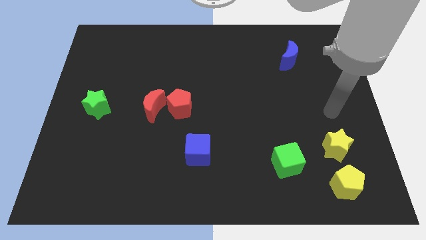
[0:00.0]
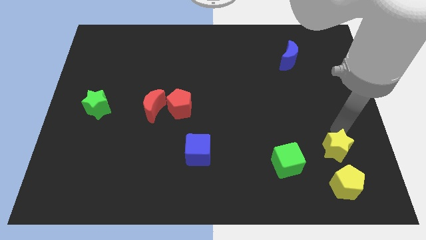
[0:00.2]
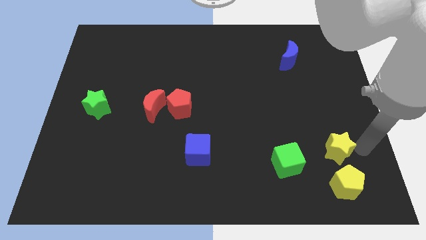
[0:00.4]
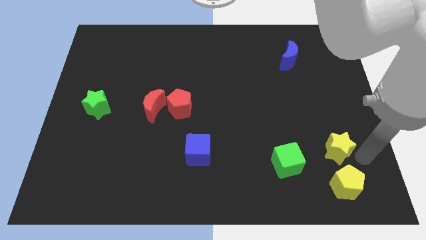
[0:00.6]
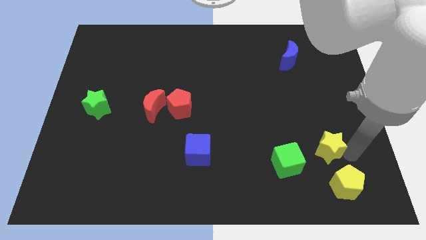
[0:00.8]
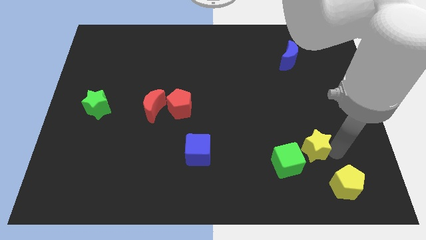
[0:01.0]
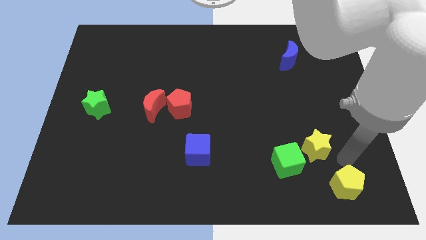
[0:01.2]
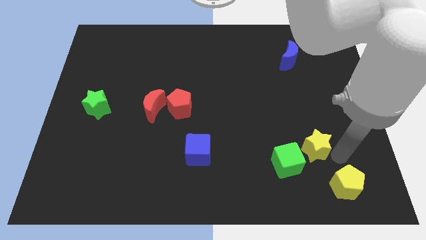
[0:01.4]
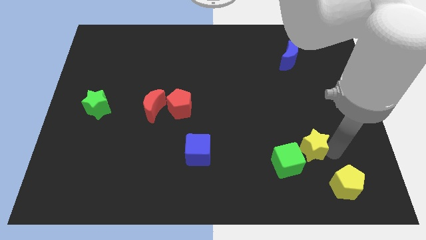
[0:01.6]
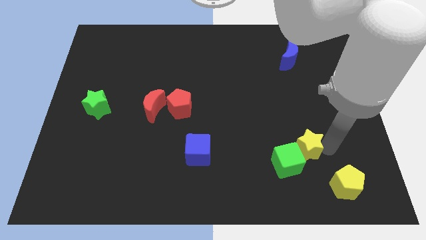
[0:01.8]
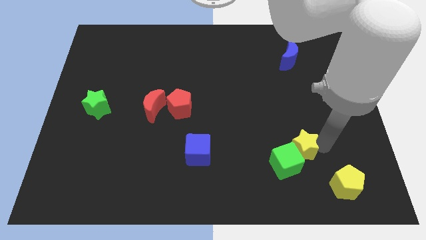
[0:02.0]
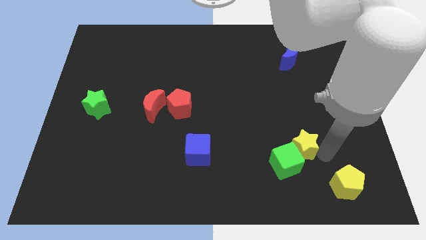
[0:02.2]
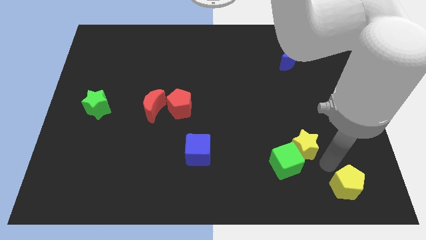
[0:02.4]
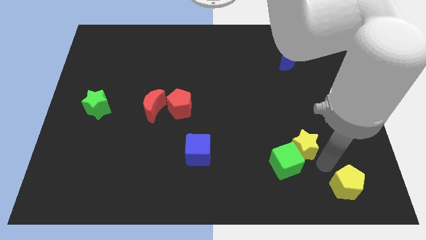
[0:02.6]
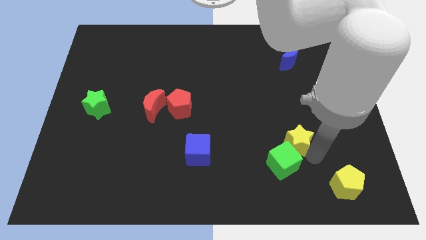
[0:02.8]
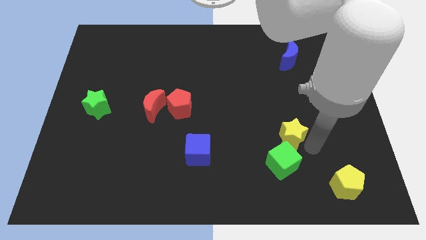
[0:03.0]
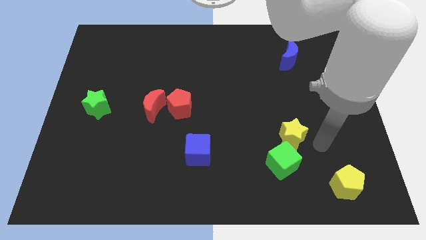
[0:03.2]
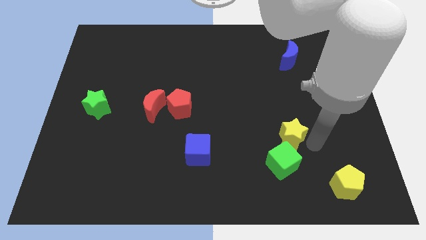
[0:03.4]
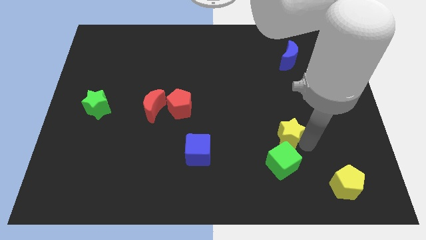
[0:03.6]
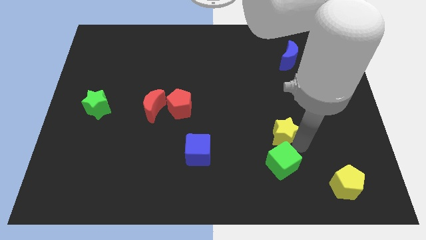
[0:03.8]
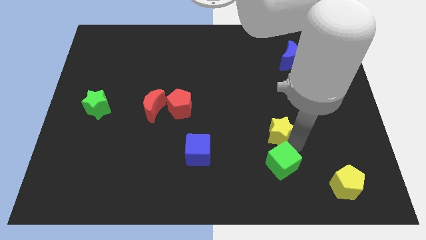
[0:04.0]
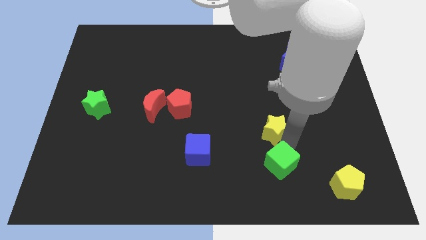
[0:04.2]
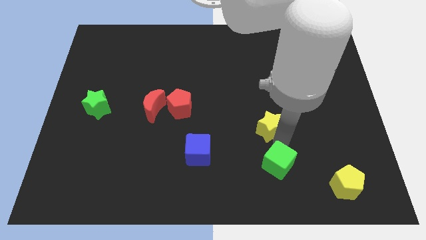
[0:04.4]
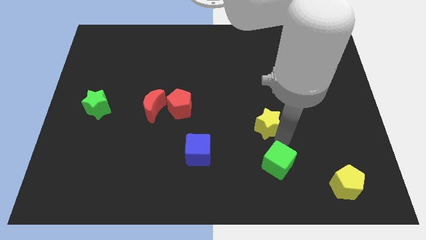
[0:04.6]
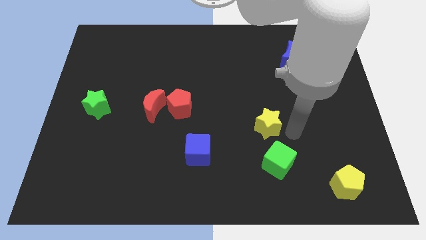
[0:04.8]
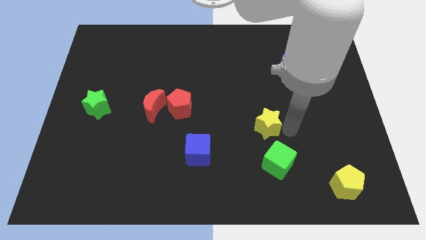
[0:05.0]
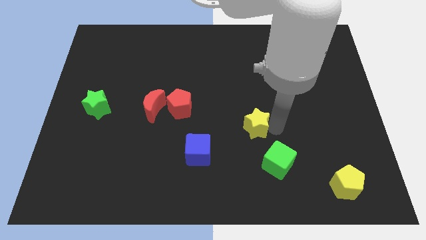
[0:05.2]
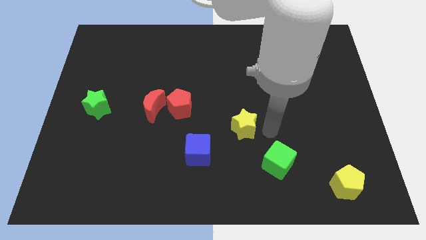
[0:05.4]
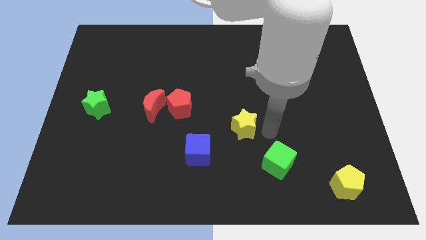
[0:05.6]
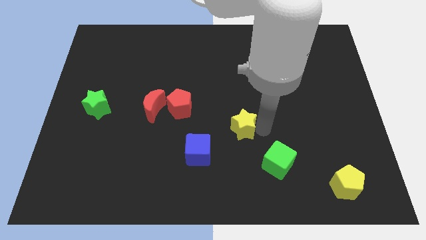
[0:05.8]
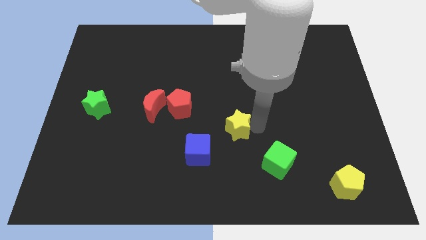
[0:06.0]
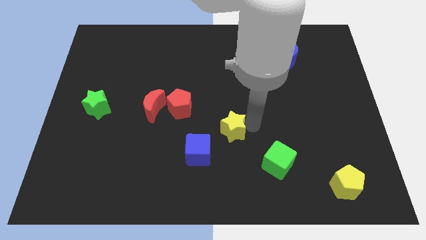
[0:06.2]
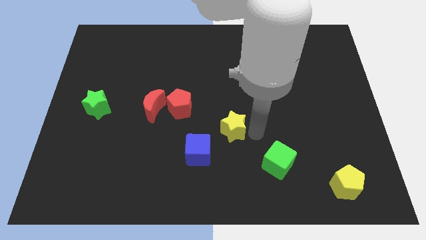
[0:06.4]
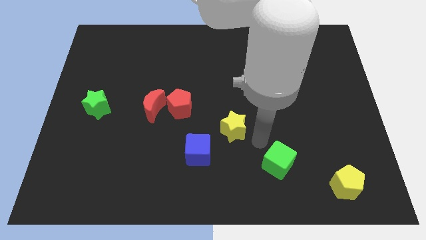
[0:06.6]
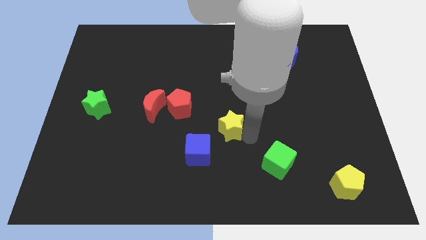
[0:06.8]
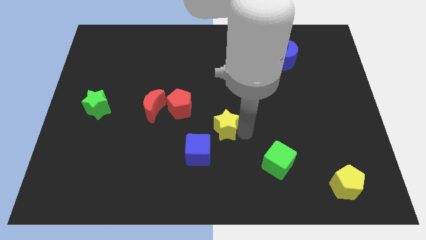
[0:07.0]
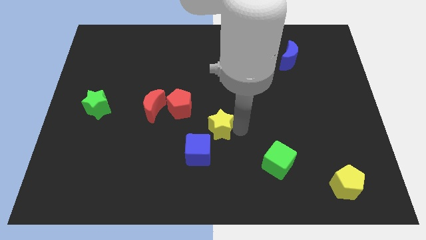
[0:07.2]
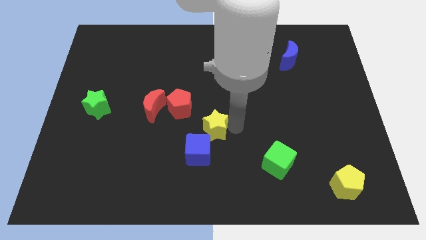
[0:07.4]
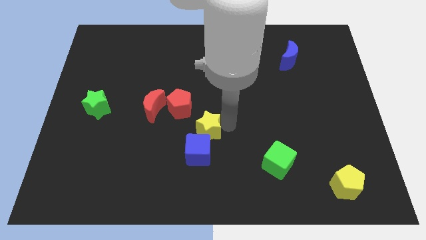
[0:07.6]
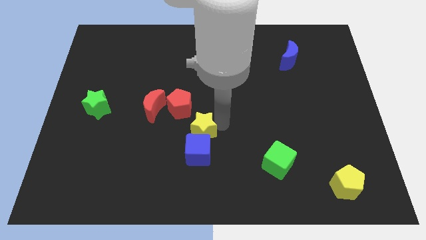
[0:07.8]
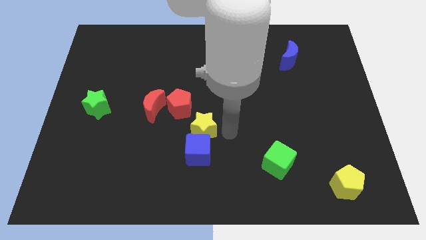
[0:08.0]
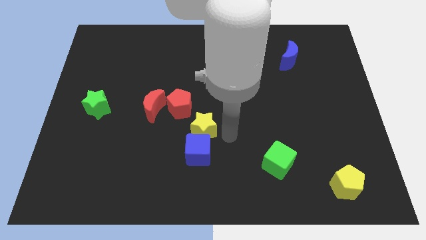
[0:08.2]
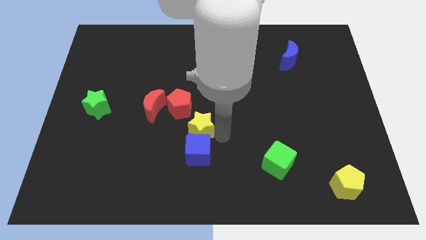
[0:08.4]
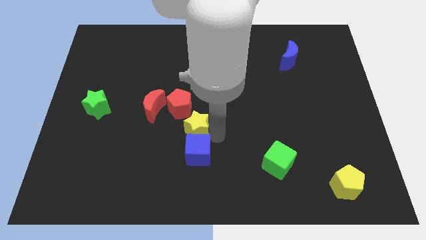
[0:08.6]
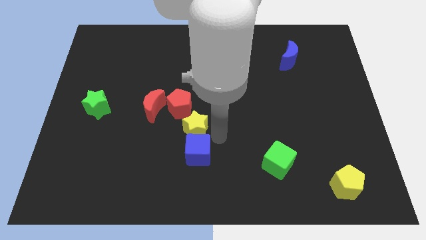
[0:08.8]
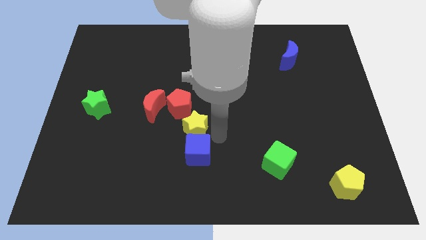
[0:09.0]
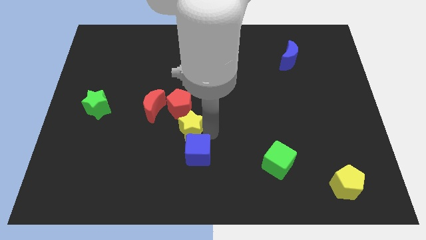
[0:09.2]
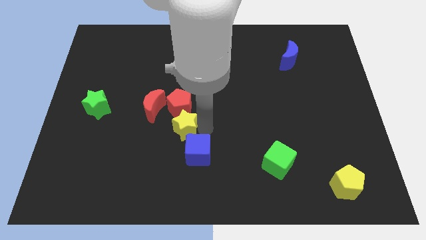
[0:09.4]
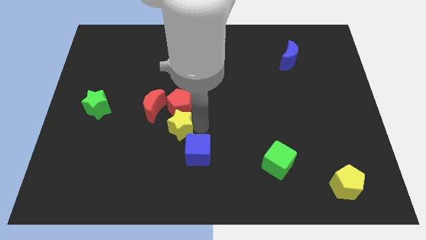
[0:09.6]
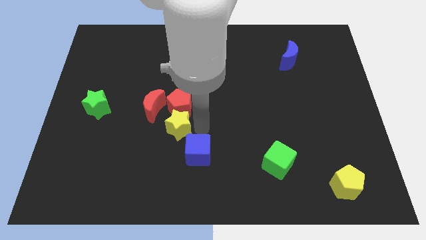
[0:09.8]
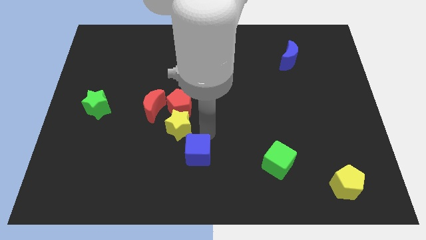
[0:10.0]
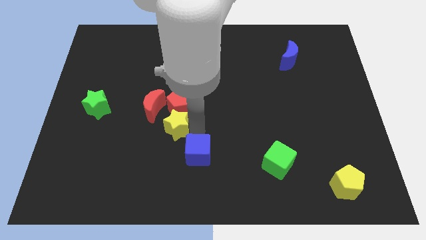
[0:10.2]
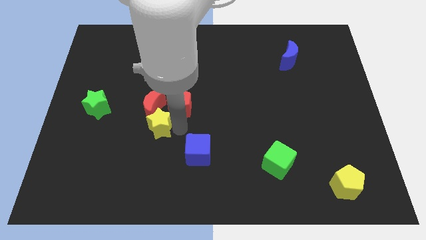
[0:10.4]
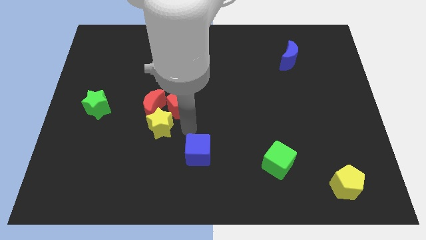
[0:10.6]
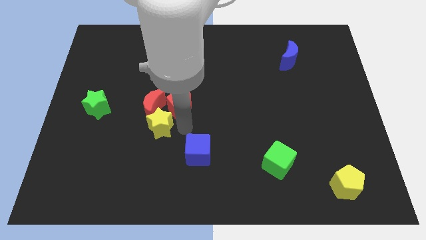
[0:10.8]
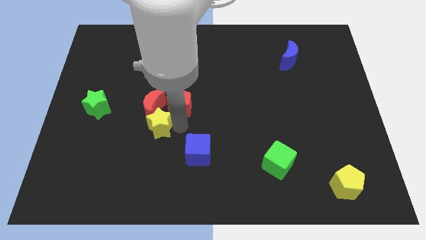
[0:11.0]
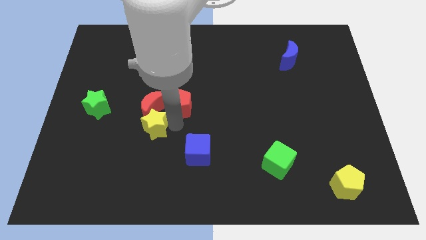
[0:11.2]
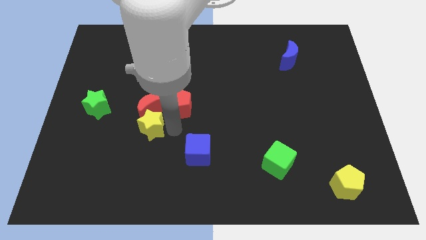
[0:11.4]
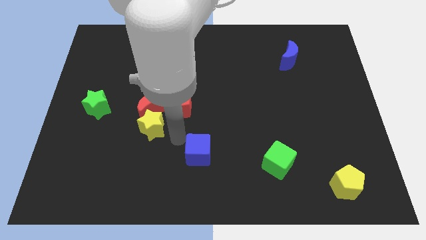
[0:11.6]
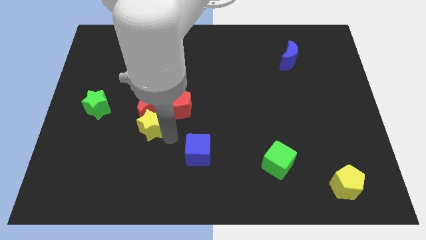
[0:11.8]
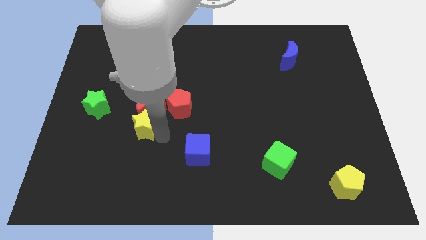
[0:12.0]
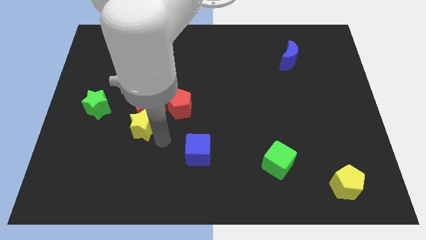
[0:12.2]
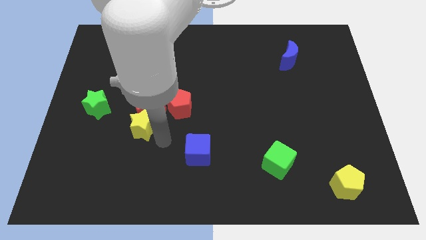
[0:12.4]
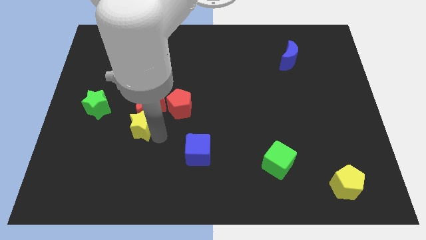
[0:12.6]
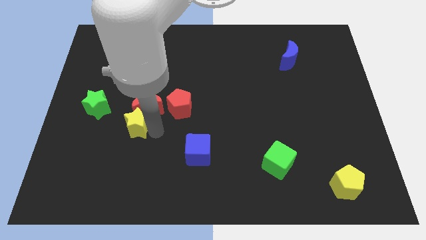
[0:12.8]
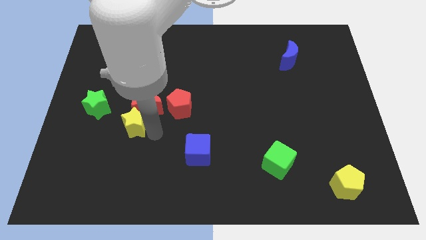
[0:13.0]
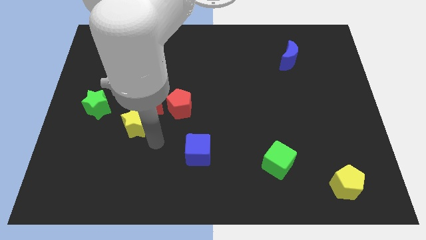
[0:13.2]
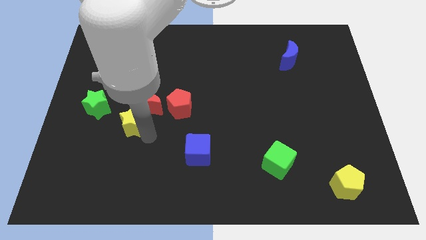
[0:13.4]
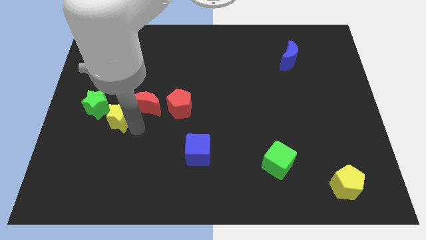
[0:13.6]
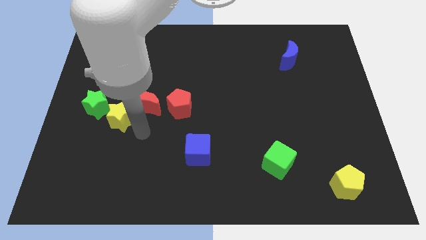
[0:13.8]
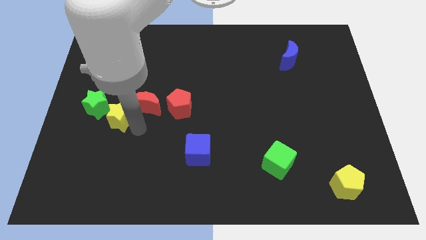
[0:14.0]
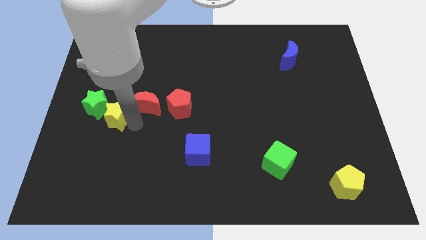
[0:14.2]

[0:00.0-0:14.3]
push the yellow star to the green star
